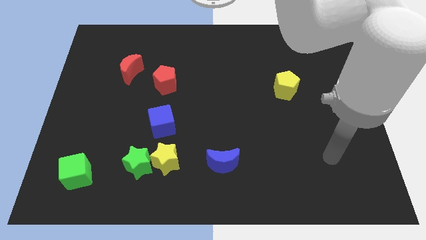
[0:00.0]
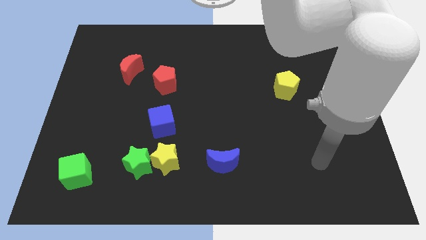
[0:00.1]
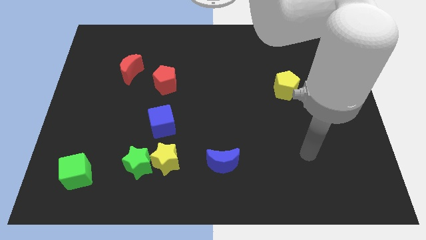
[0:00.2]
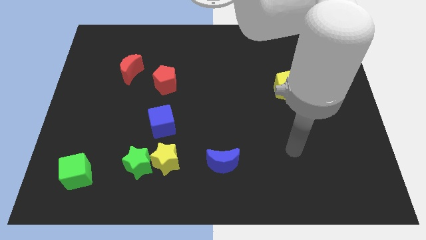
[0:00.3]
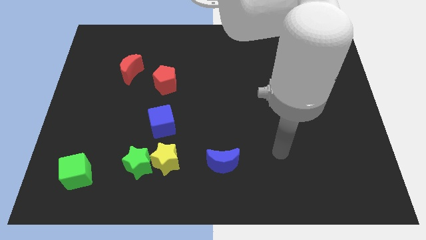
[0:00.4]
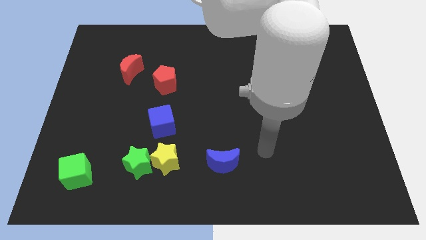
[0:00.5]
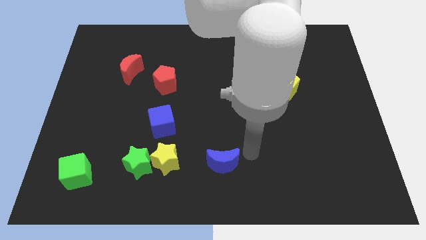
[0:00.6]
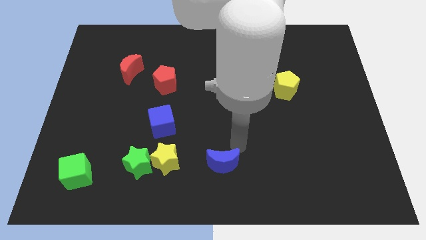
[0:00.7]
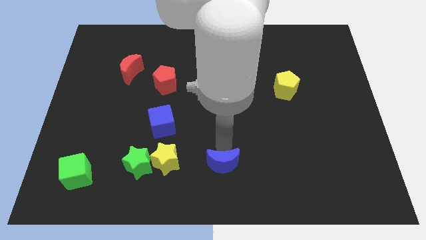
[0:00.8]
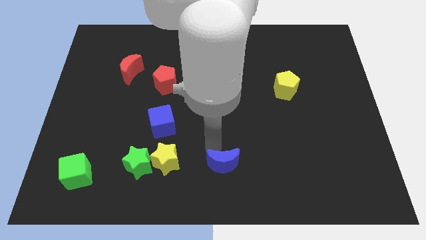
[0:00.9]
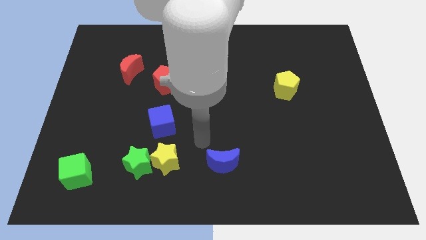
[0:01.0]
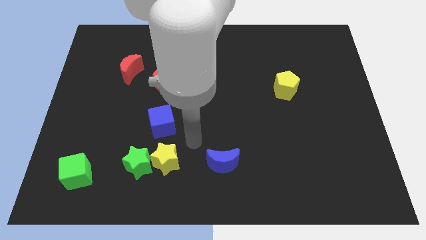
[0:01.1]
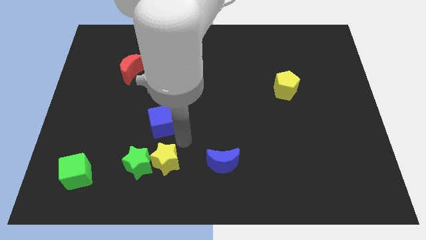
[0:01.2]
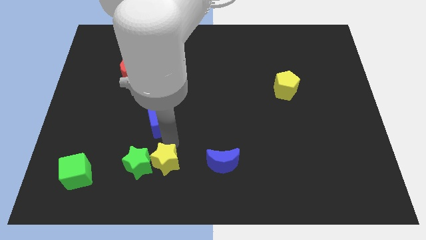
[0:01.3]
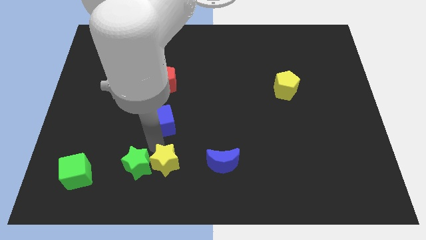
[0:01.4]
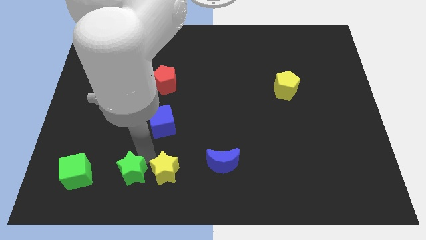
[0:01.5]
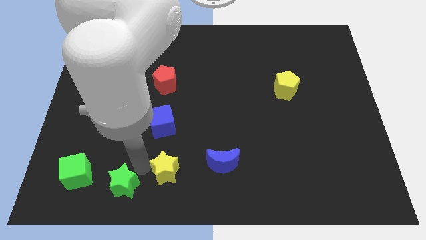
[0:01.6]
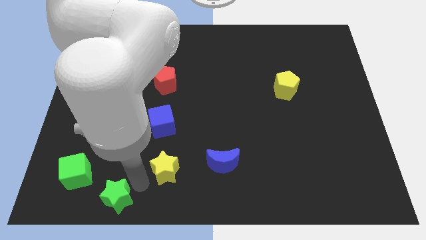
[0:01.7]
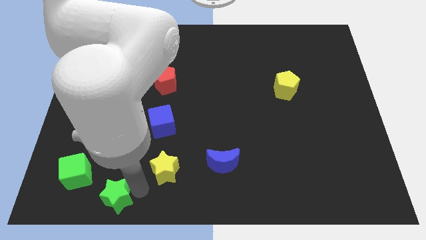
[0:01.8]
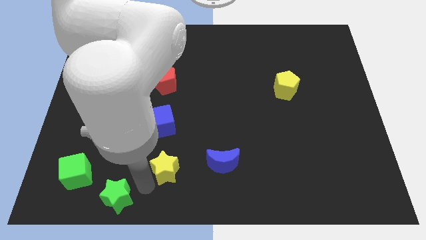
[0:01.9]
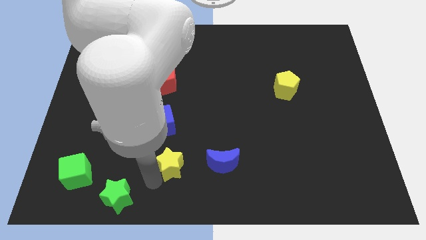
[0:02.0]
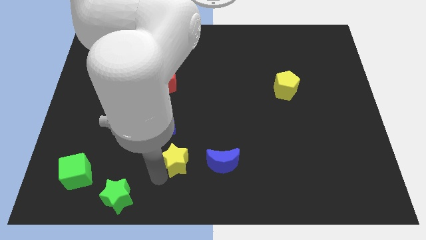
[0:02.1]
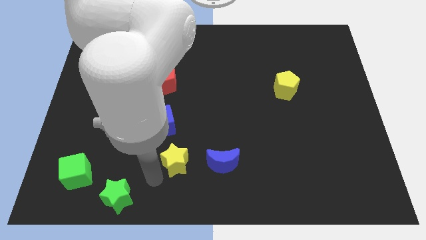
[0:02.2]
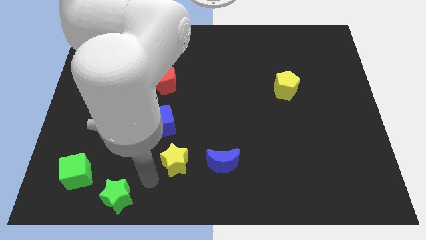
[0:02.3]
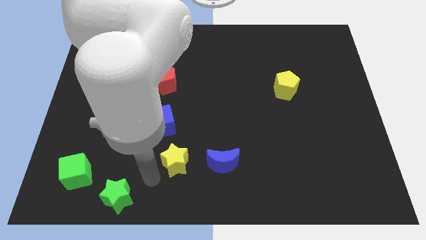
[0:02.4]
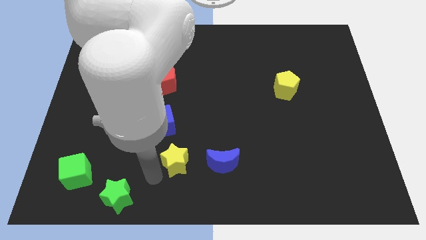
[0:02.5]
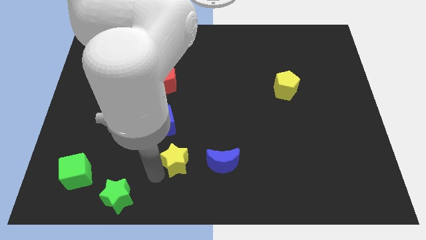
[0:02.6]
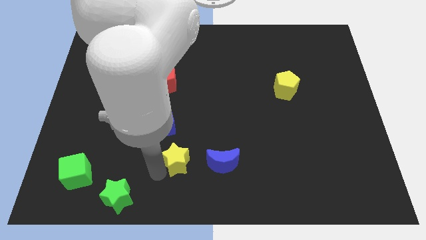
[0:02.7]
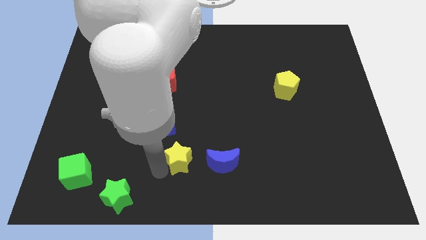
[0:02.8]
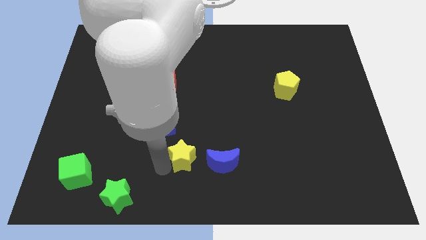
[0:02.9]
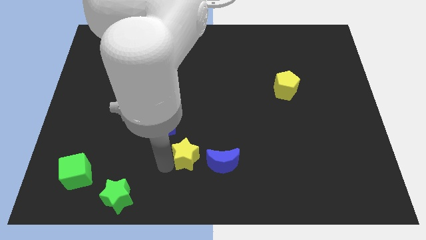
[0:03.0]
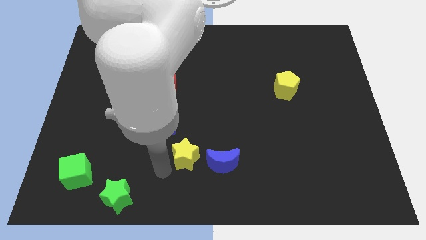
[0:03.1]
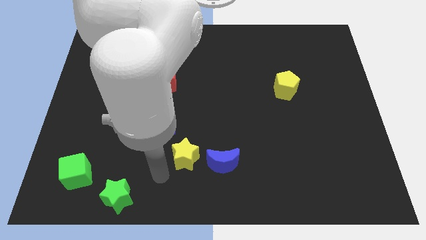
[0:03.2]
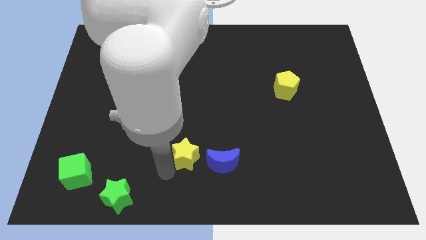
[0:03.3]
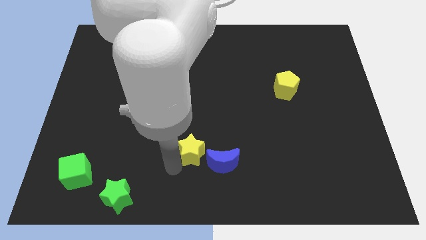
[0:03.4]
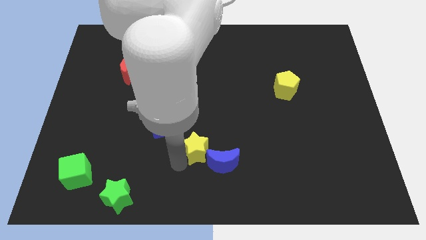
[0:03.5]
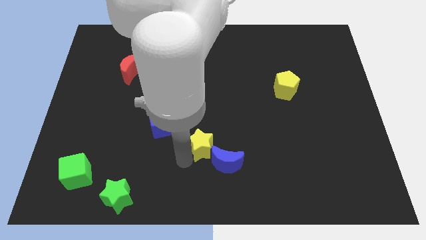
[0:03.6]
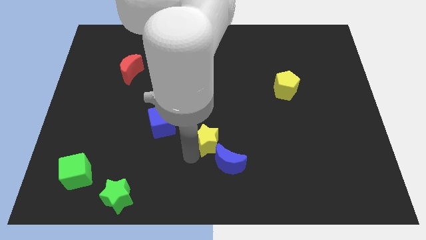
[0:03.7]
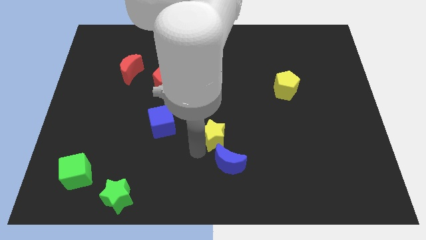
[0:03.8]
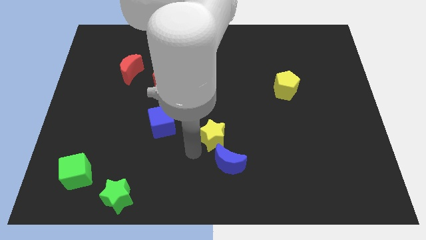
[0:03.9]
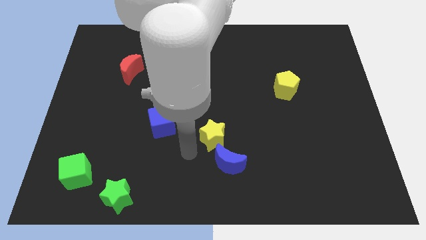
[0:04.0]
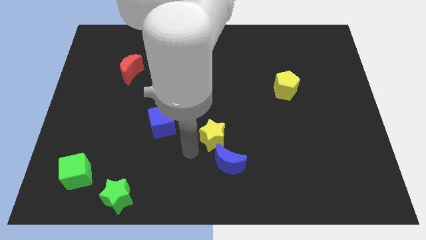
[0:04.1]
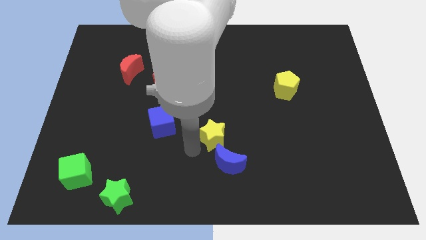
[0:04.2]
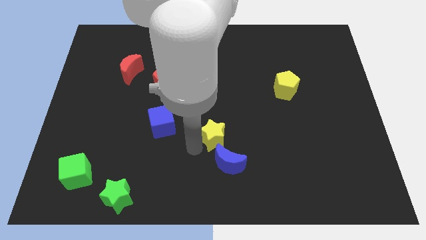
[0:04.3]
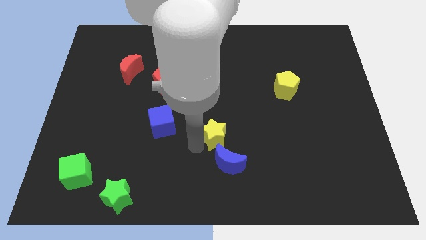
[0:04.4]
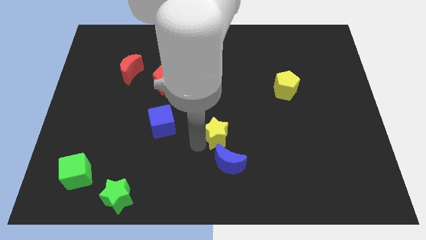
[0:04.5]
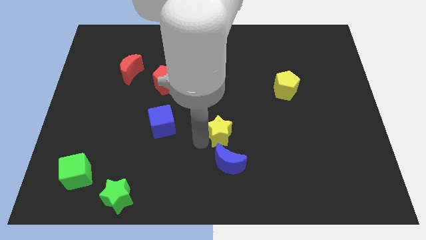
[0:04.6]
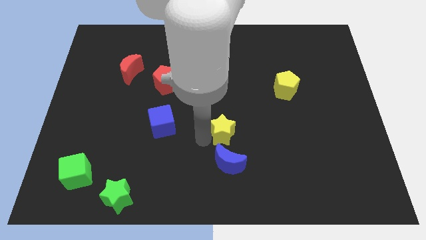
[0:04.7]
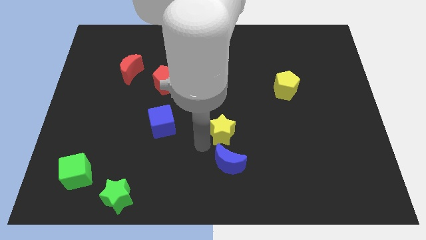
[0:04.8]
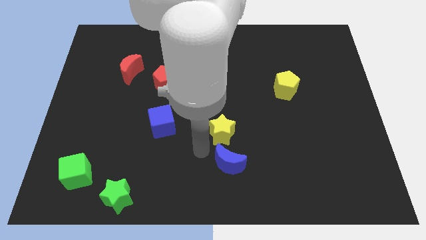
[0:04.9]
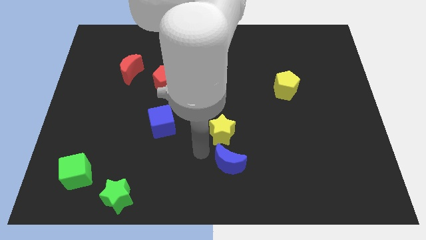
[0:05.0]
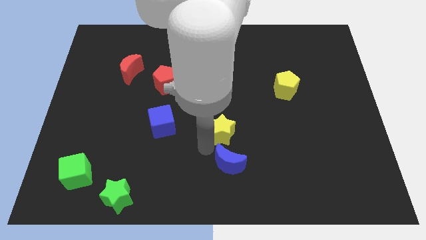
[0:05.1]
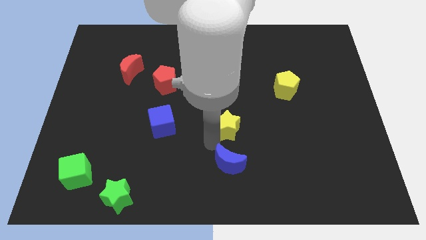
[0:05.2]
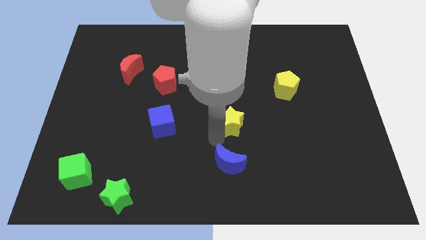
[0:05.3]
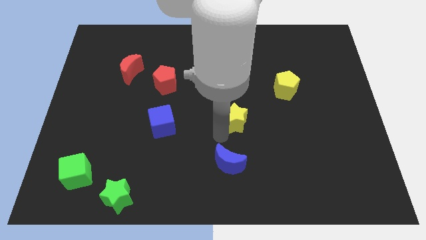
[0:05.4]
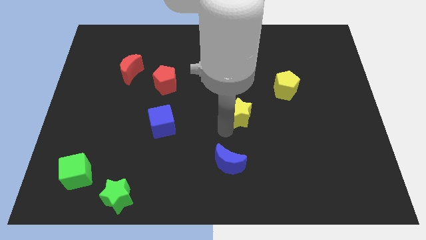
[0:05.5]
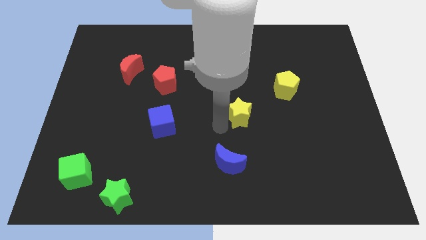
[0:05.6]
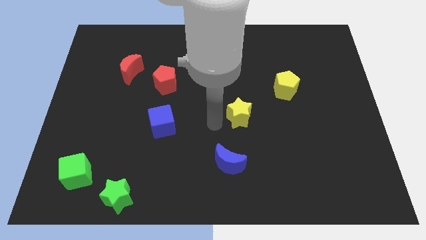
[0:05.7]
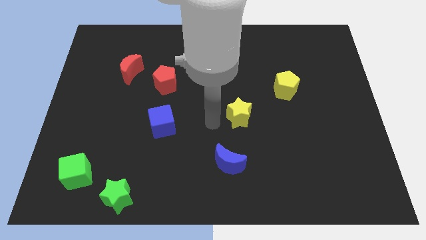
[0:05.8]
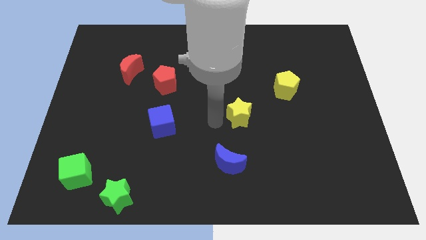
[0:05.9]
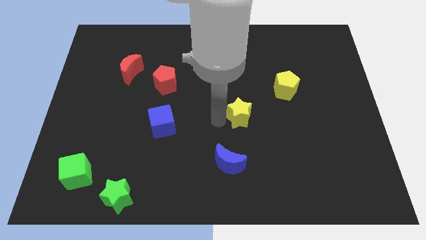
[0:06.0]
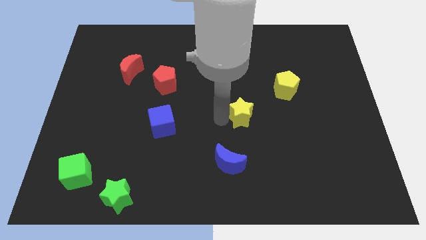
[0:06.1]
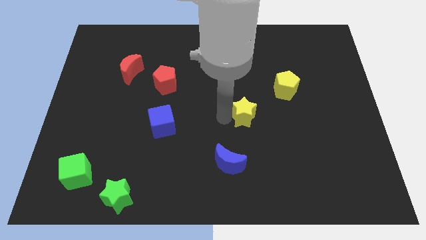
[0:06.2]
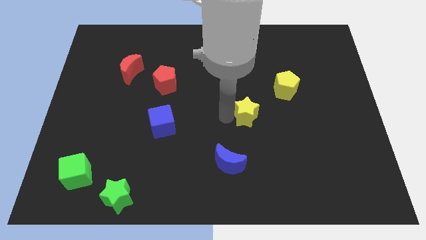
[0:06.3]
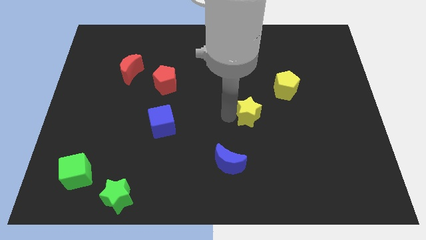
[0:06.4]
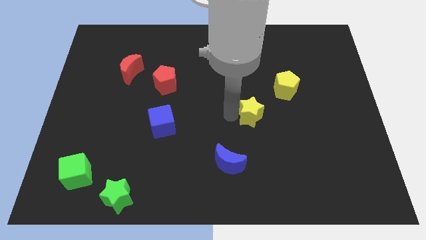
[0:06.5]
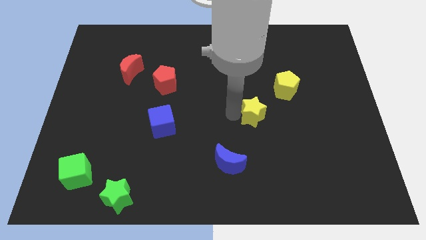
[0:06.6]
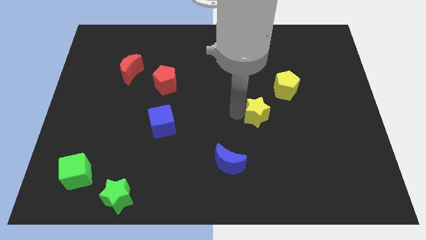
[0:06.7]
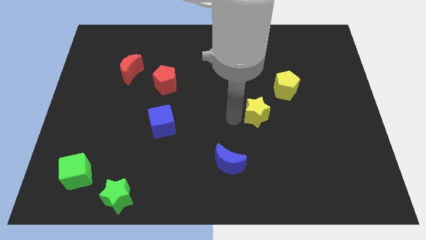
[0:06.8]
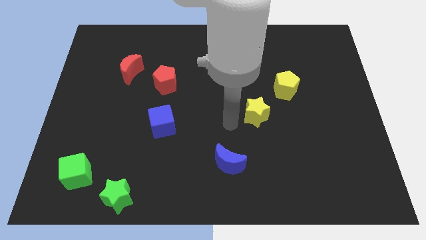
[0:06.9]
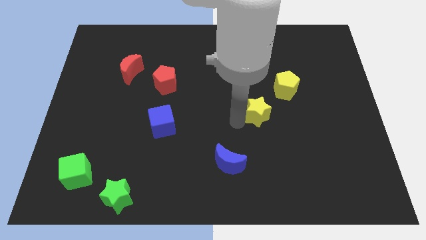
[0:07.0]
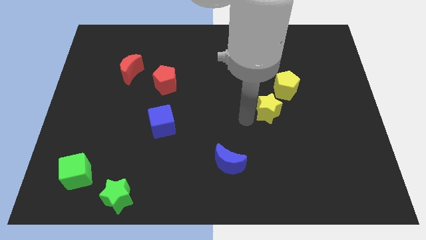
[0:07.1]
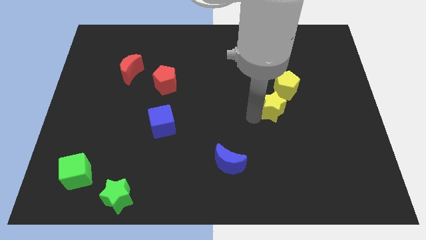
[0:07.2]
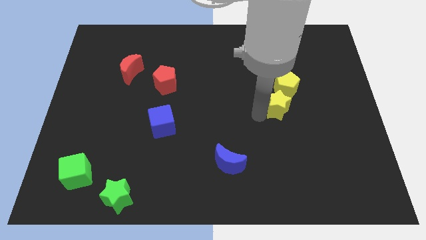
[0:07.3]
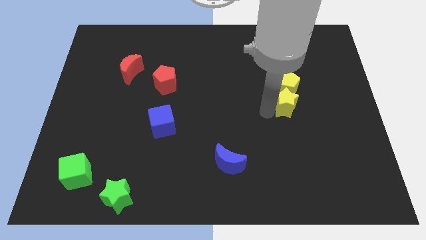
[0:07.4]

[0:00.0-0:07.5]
move the yellow star to the bottom right of the yellow pentagon
